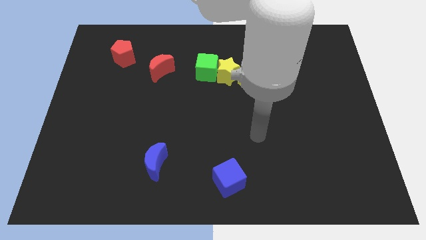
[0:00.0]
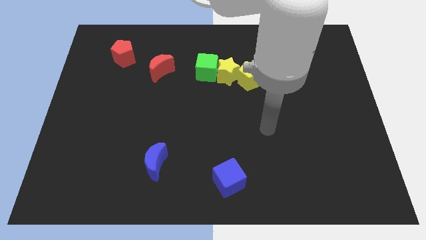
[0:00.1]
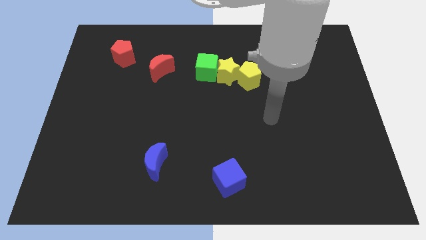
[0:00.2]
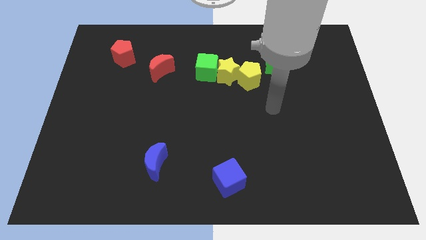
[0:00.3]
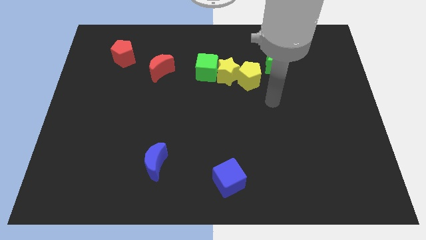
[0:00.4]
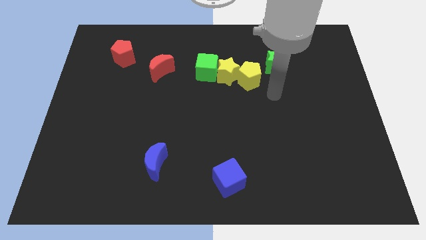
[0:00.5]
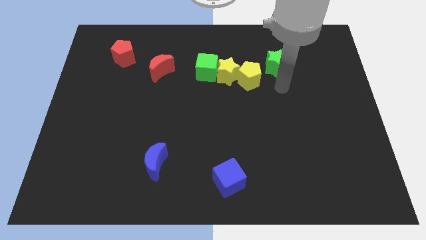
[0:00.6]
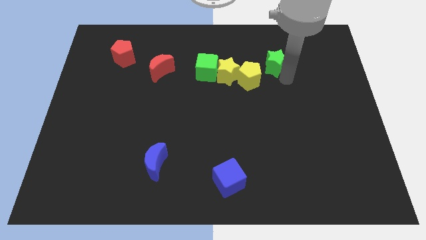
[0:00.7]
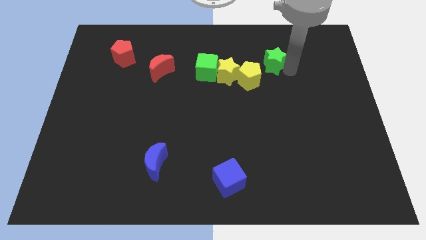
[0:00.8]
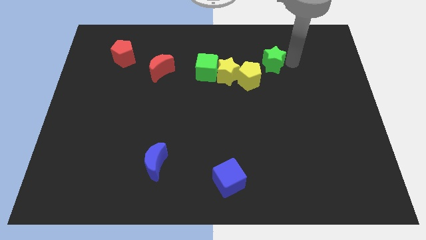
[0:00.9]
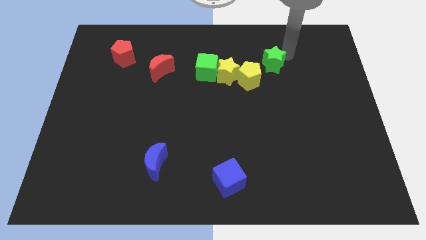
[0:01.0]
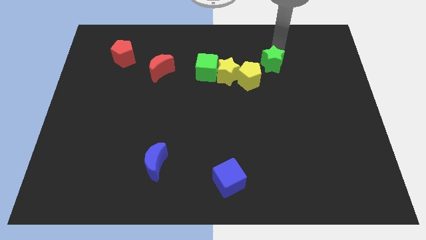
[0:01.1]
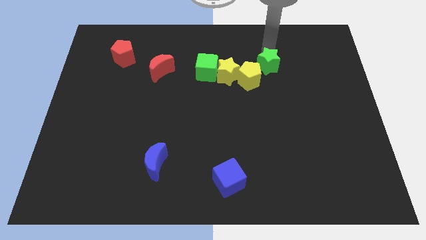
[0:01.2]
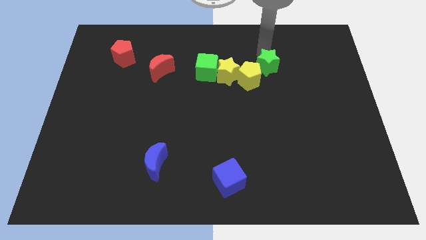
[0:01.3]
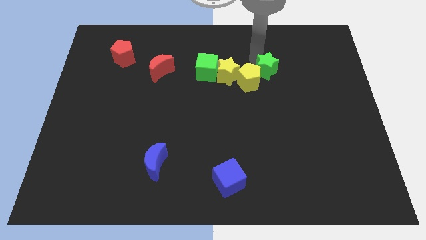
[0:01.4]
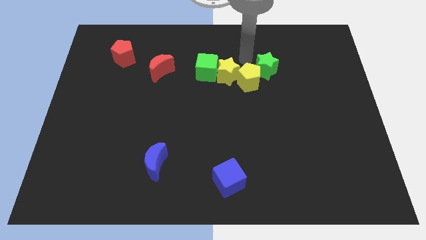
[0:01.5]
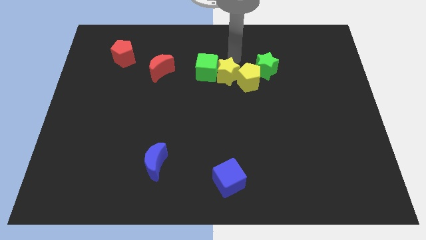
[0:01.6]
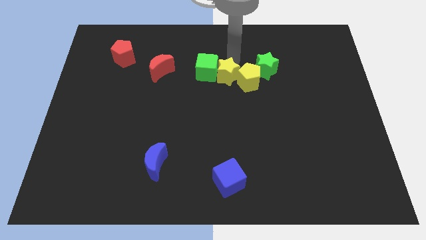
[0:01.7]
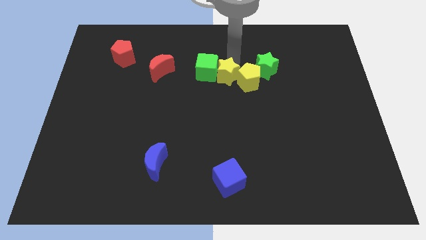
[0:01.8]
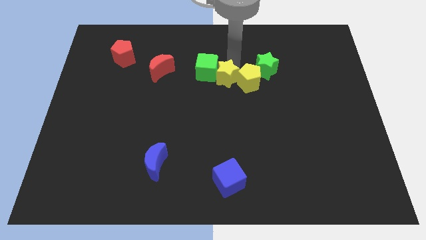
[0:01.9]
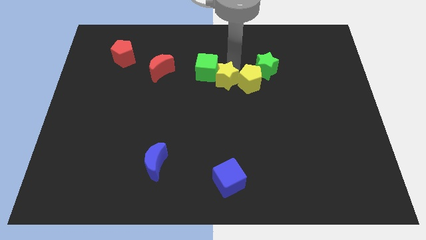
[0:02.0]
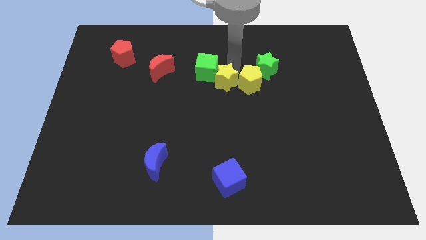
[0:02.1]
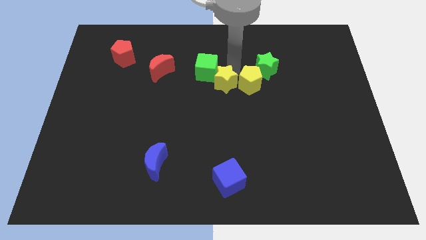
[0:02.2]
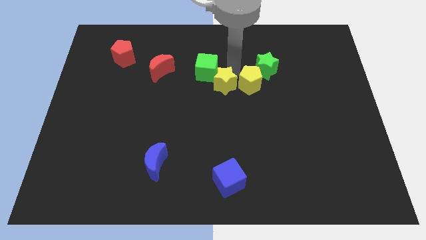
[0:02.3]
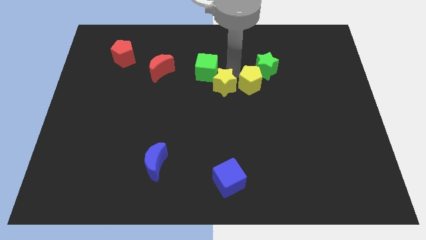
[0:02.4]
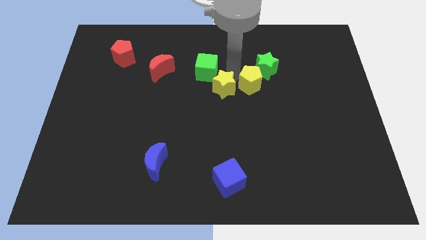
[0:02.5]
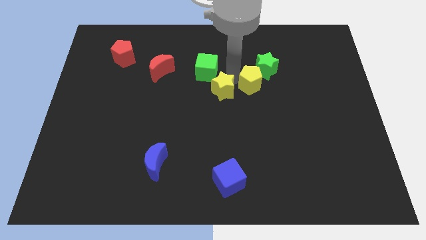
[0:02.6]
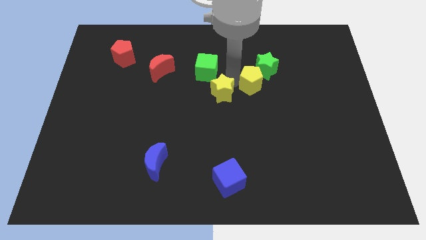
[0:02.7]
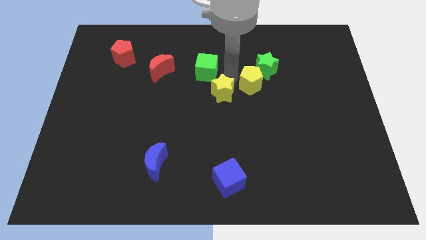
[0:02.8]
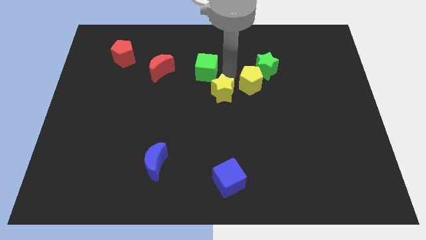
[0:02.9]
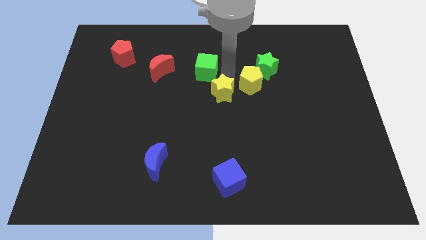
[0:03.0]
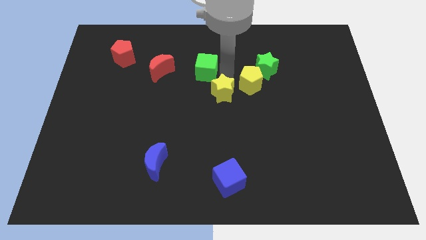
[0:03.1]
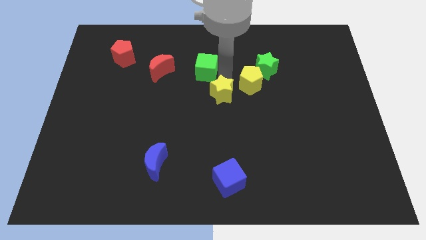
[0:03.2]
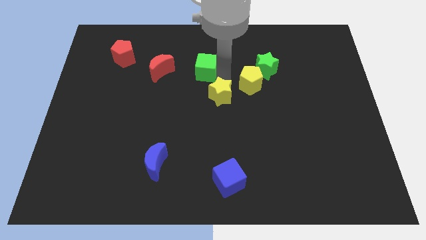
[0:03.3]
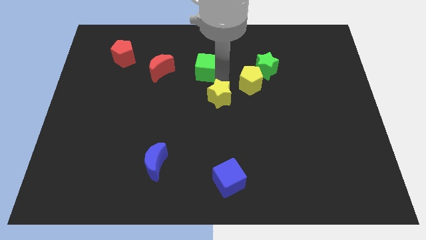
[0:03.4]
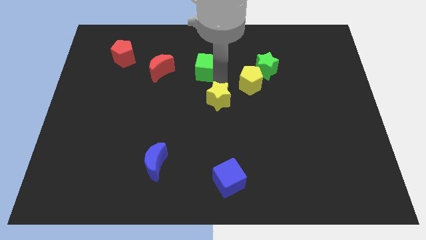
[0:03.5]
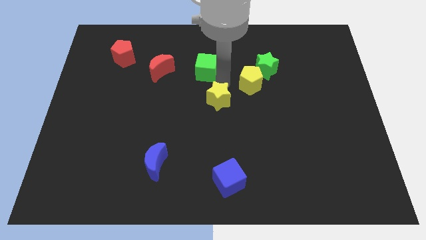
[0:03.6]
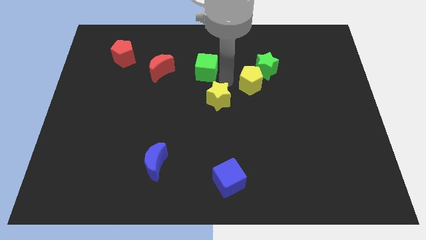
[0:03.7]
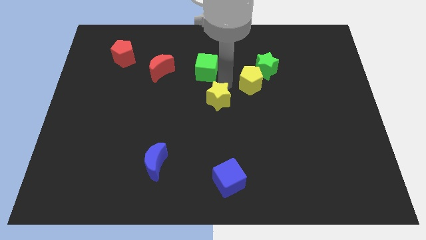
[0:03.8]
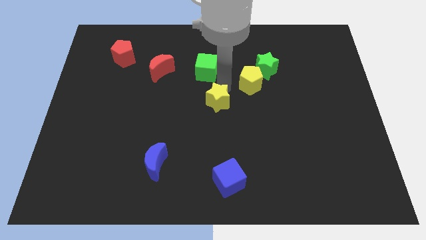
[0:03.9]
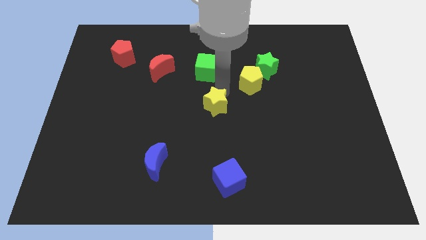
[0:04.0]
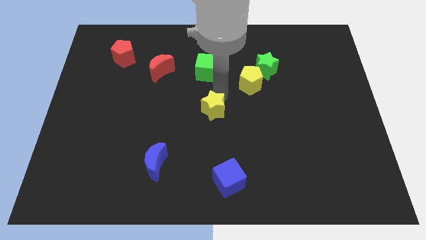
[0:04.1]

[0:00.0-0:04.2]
separate the yellow star from the yellow pentagon and green cube

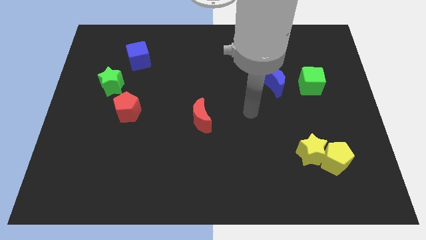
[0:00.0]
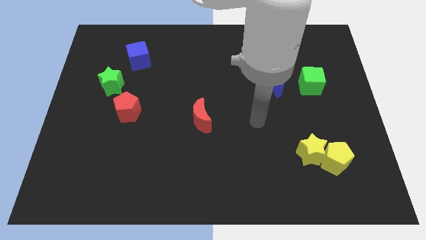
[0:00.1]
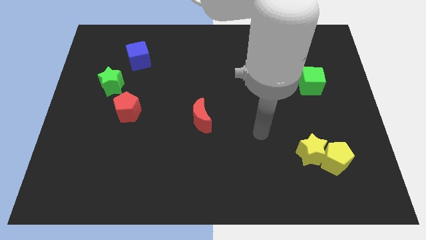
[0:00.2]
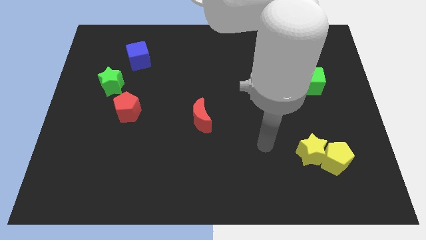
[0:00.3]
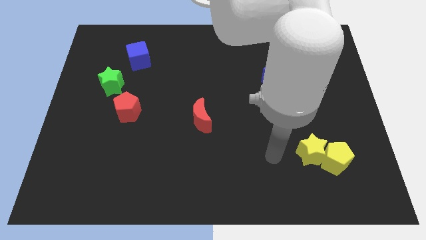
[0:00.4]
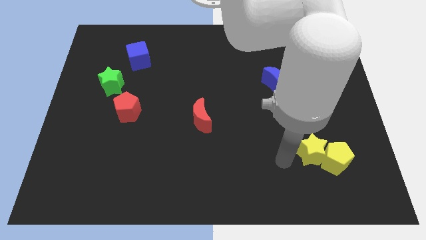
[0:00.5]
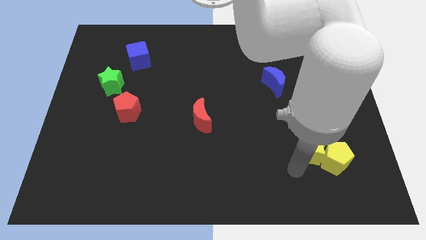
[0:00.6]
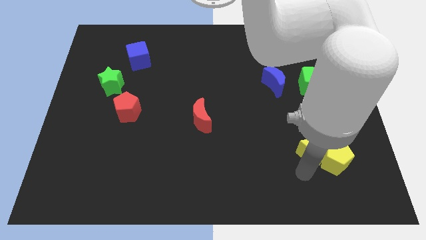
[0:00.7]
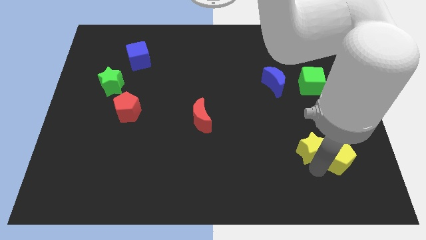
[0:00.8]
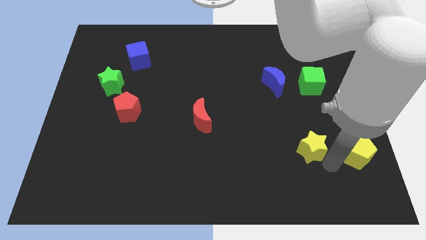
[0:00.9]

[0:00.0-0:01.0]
move the yellow star away from the yellow pentagon

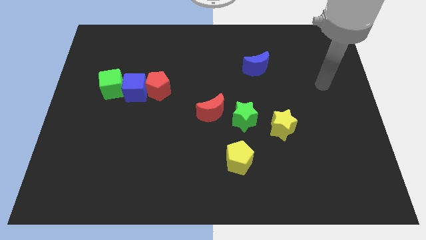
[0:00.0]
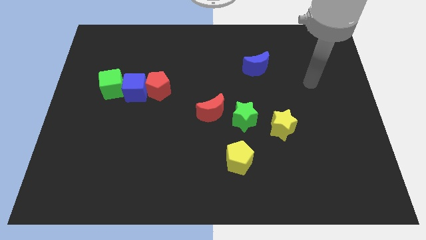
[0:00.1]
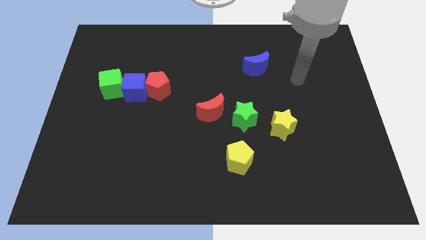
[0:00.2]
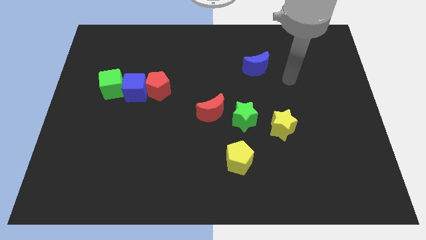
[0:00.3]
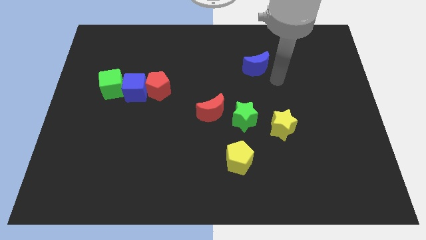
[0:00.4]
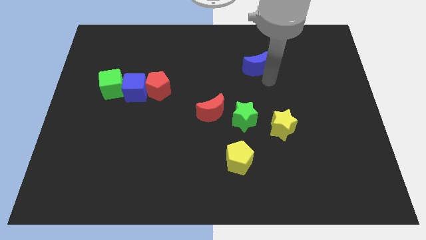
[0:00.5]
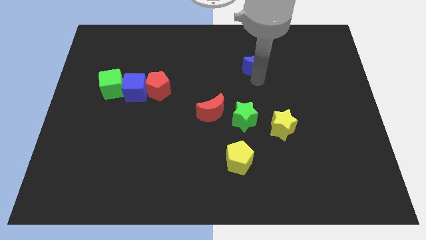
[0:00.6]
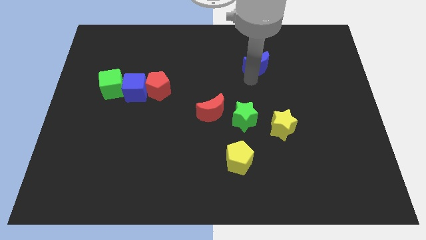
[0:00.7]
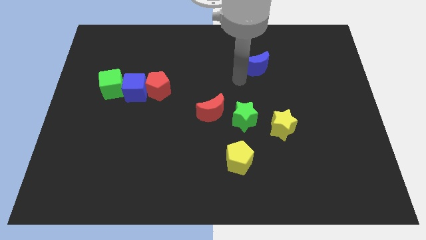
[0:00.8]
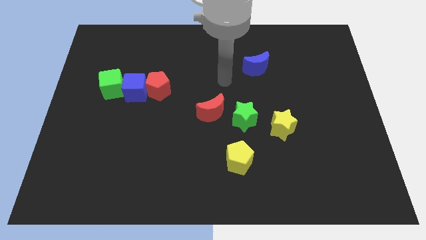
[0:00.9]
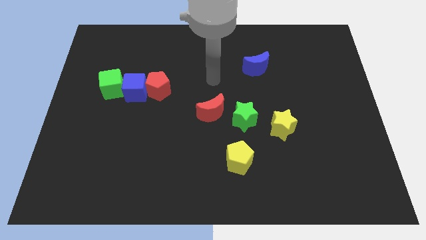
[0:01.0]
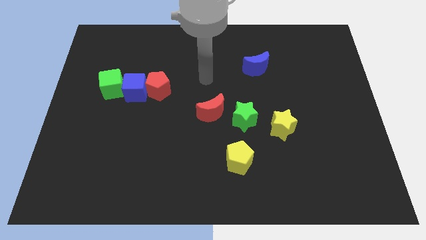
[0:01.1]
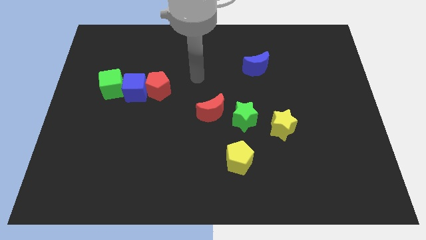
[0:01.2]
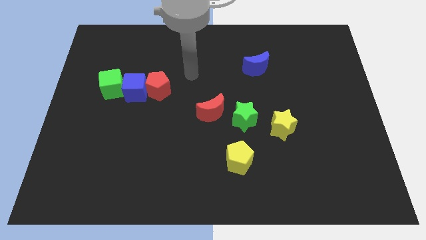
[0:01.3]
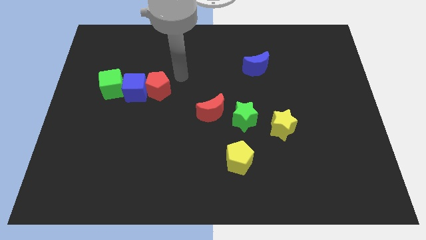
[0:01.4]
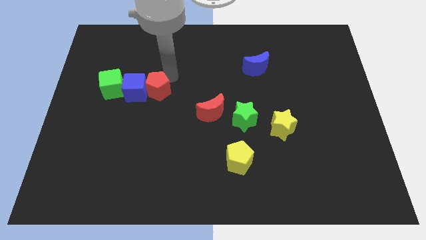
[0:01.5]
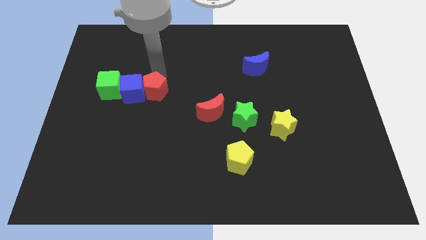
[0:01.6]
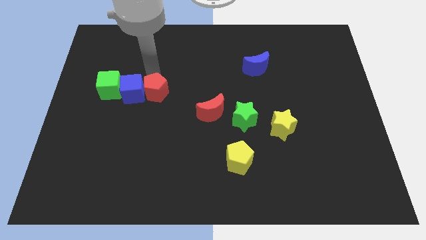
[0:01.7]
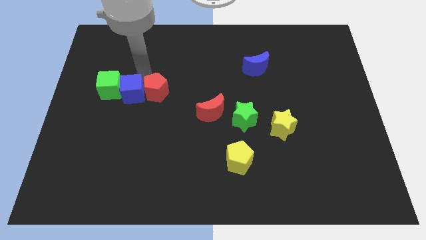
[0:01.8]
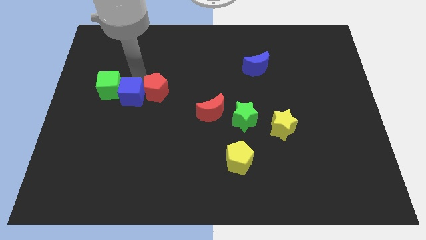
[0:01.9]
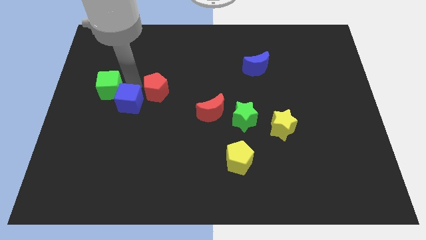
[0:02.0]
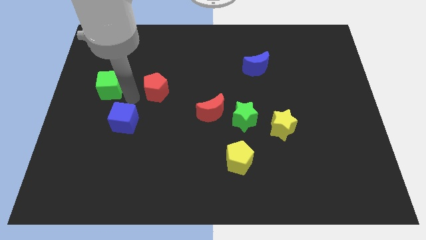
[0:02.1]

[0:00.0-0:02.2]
pull the red pentagon apart from the blue cube

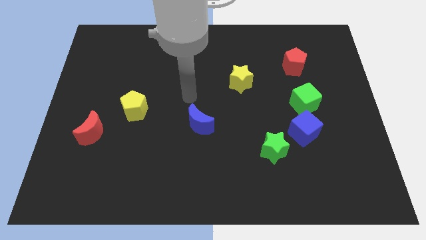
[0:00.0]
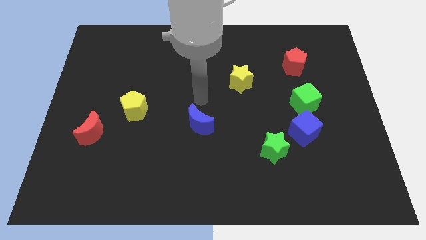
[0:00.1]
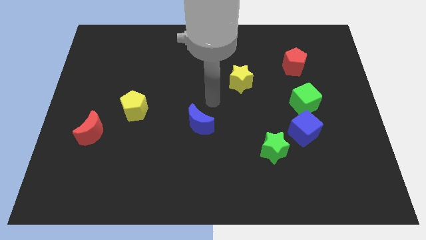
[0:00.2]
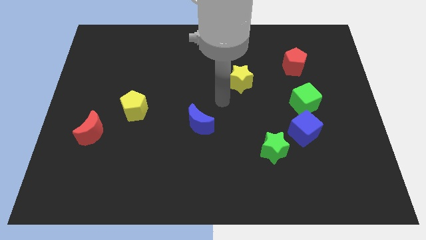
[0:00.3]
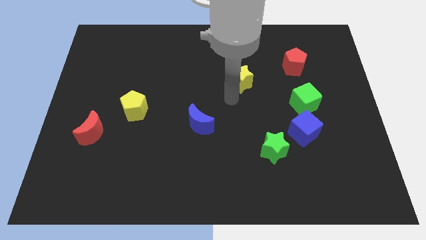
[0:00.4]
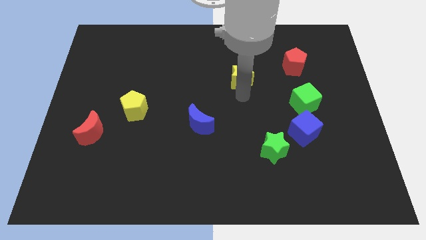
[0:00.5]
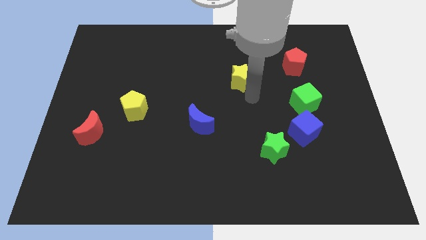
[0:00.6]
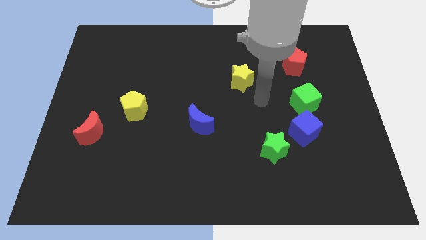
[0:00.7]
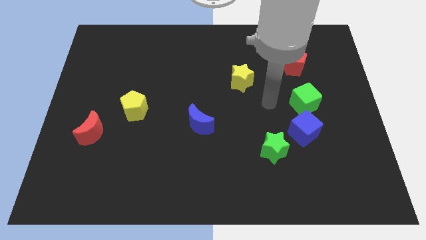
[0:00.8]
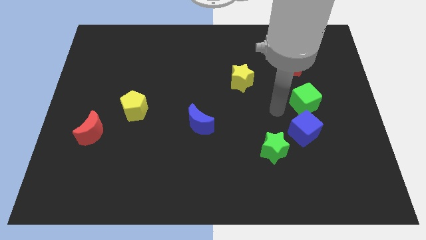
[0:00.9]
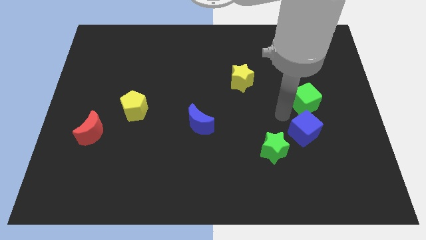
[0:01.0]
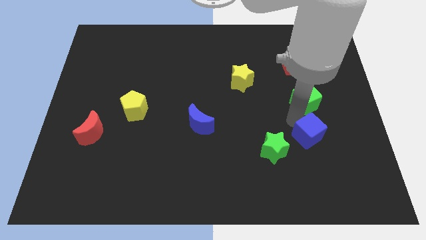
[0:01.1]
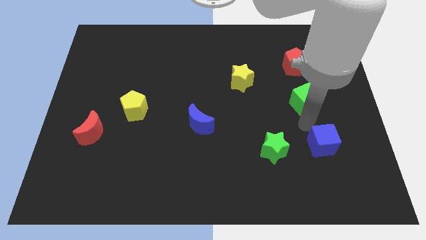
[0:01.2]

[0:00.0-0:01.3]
pull the green cube apart from the blue cube

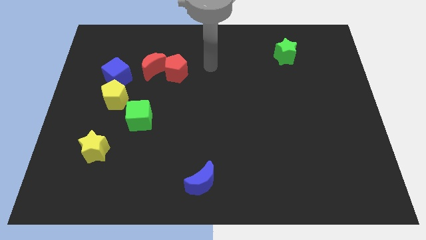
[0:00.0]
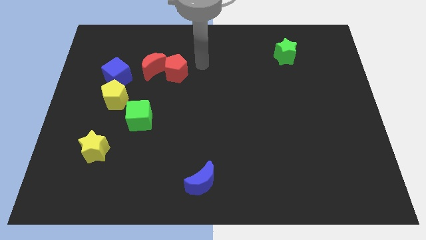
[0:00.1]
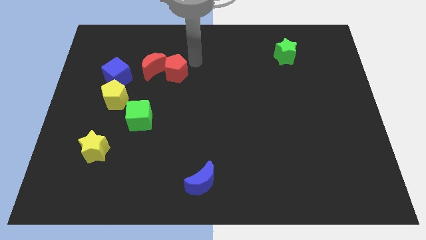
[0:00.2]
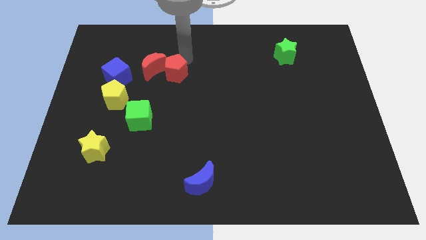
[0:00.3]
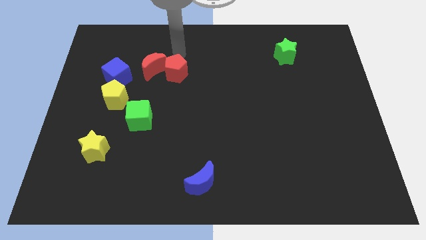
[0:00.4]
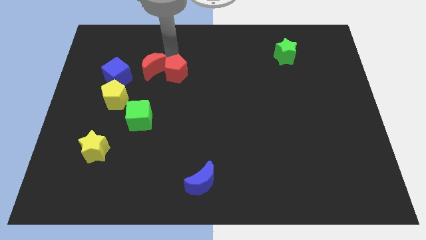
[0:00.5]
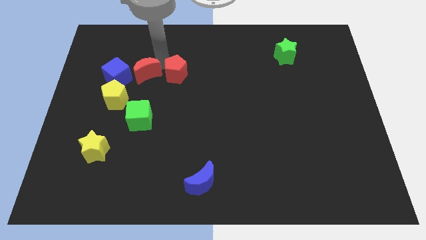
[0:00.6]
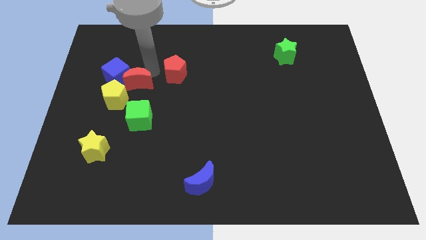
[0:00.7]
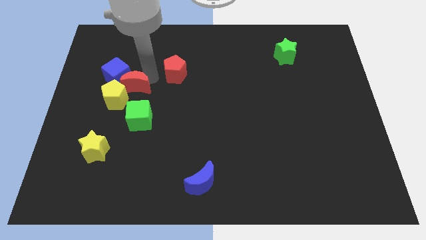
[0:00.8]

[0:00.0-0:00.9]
move the red pentagon away from the red moon
